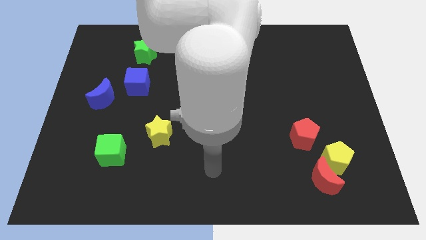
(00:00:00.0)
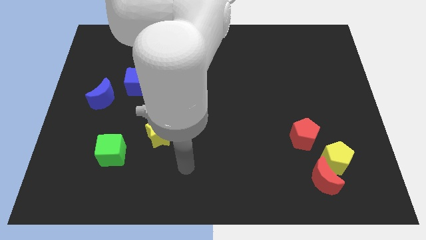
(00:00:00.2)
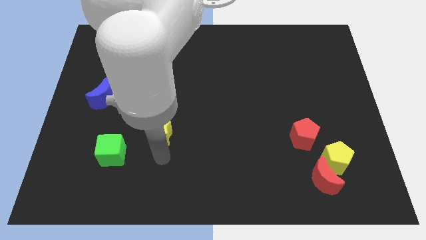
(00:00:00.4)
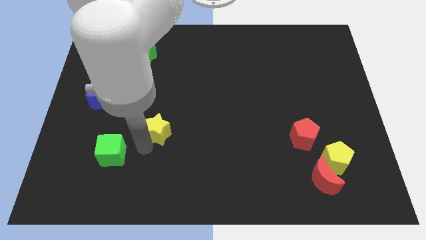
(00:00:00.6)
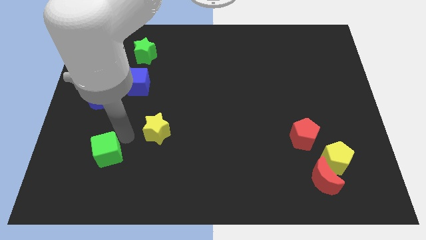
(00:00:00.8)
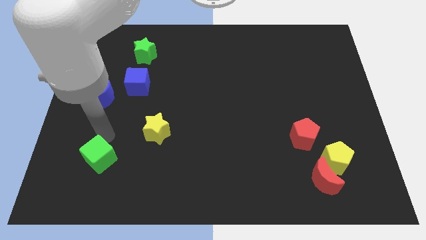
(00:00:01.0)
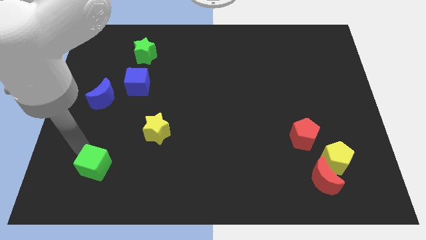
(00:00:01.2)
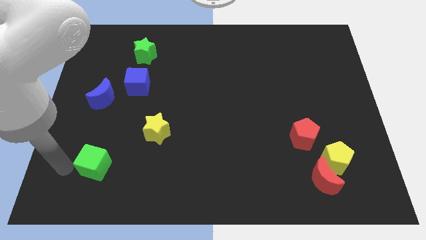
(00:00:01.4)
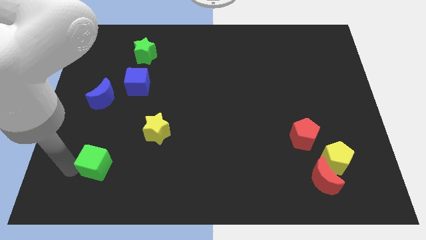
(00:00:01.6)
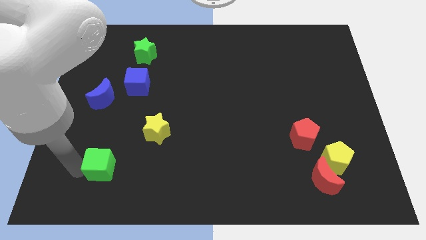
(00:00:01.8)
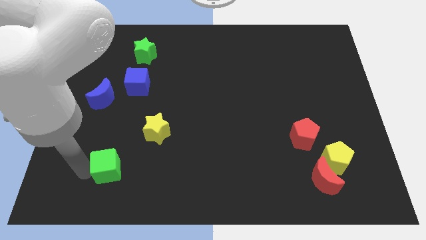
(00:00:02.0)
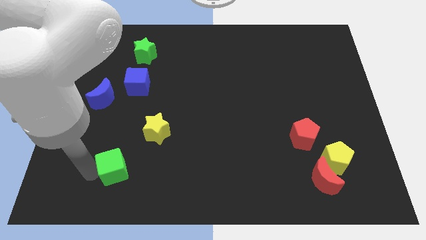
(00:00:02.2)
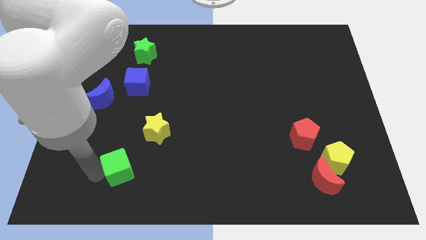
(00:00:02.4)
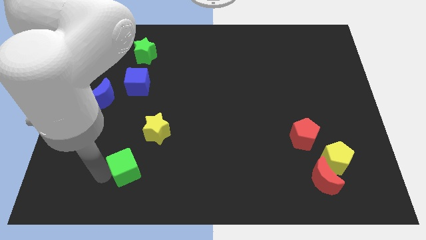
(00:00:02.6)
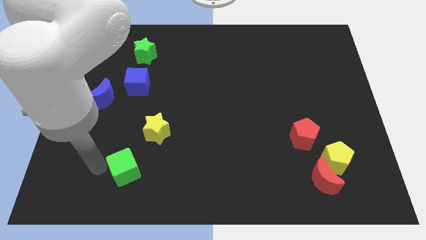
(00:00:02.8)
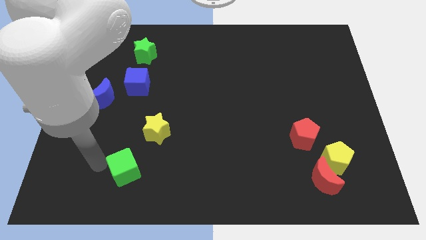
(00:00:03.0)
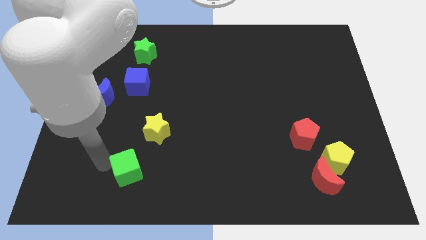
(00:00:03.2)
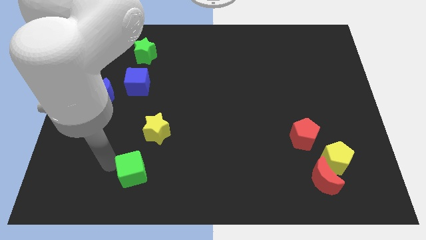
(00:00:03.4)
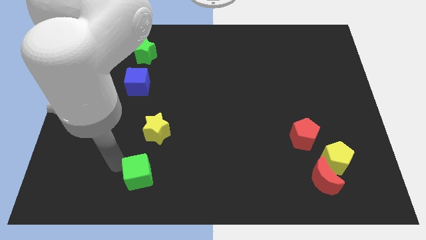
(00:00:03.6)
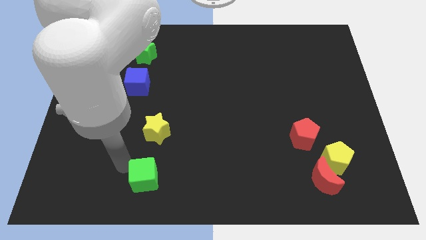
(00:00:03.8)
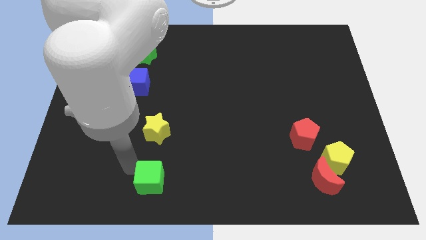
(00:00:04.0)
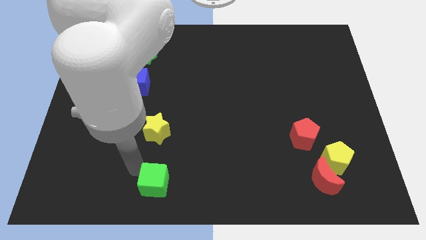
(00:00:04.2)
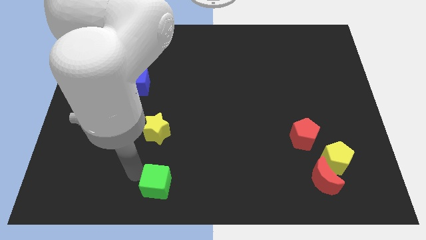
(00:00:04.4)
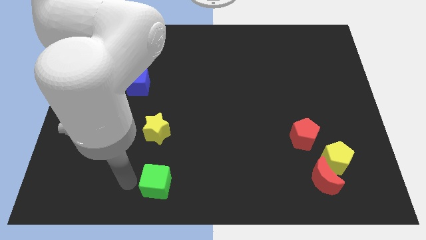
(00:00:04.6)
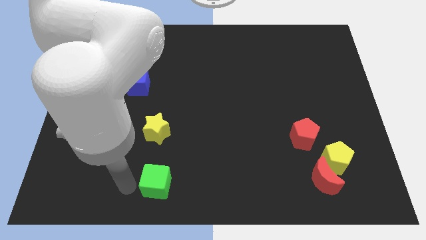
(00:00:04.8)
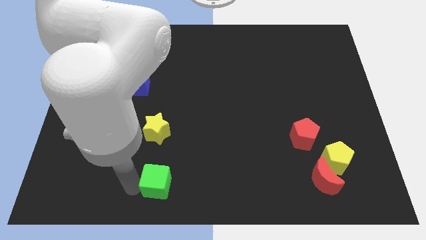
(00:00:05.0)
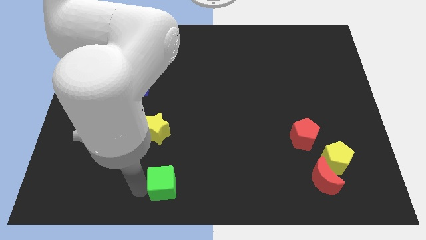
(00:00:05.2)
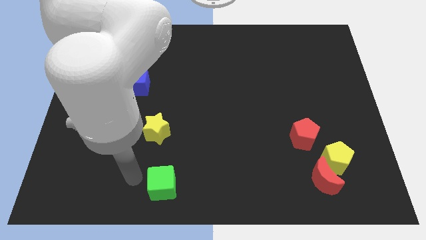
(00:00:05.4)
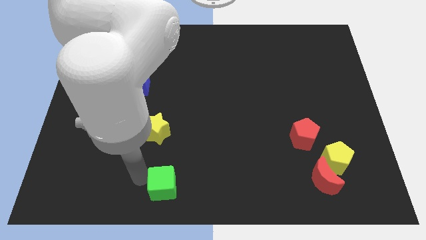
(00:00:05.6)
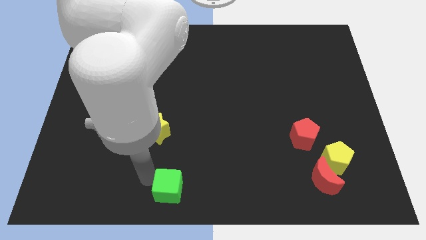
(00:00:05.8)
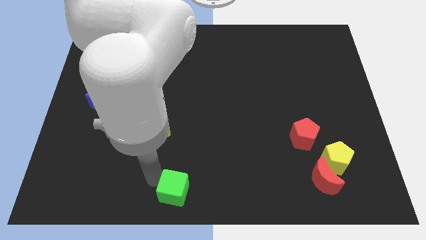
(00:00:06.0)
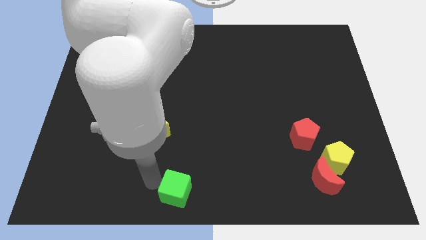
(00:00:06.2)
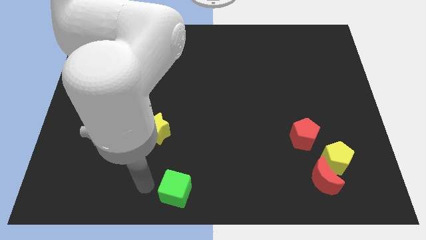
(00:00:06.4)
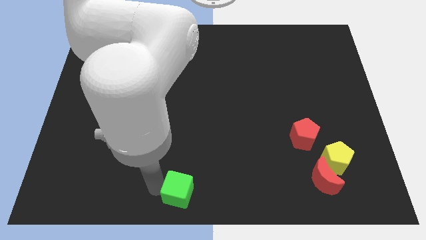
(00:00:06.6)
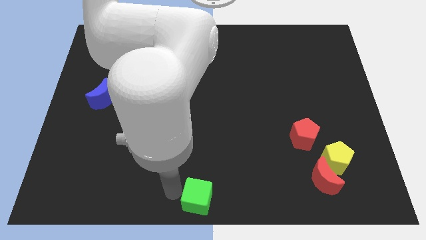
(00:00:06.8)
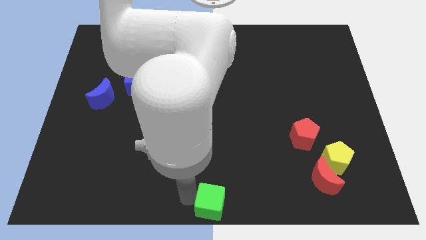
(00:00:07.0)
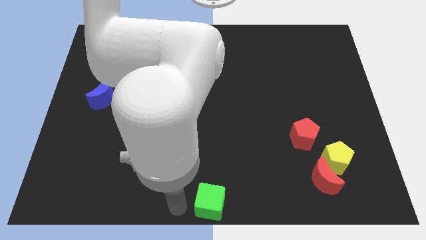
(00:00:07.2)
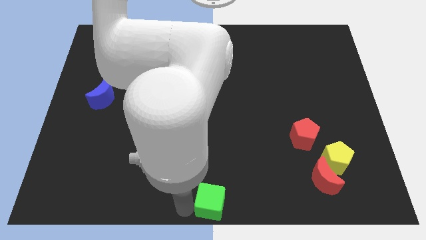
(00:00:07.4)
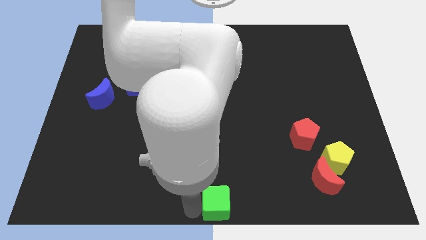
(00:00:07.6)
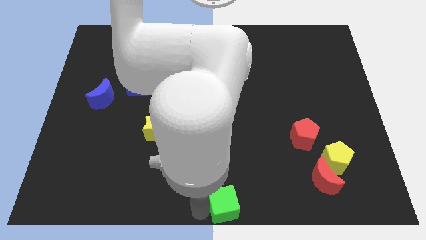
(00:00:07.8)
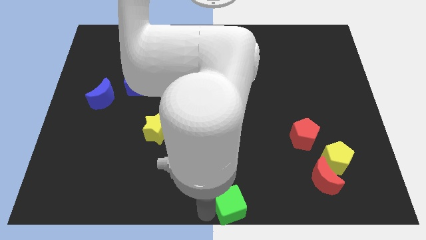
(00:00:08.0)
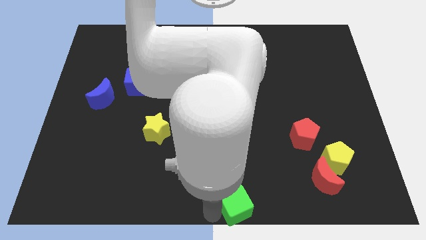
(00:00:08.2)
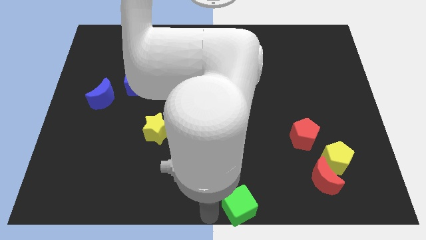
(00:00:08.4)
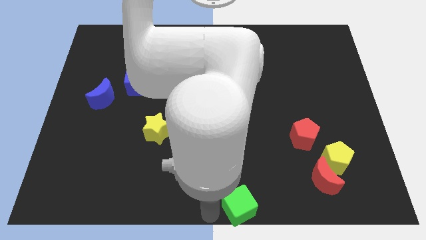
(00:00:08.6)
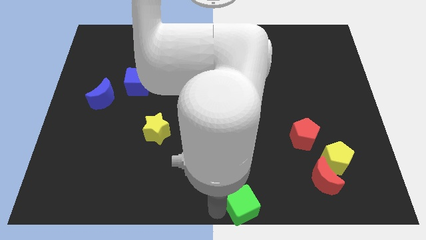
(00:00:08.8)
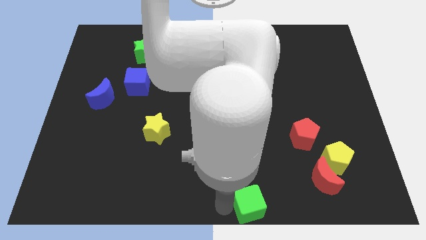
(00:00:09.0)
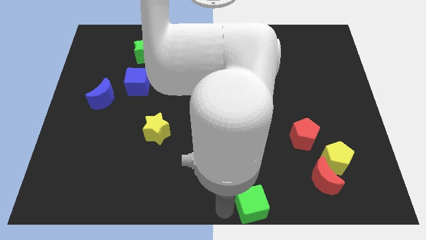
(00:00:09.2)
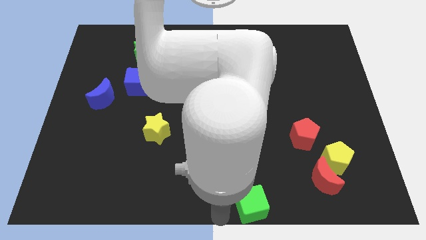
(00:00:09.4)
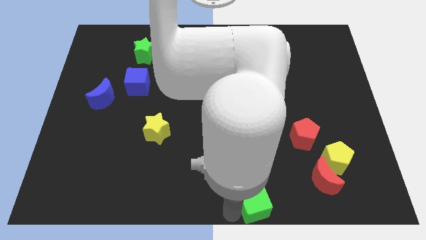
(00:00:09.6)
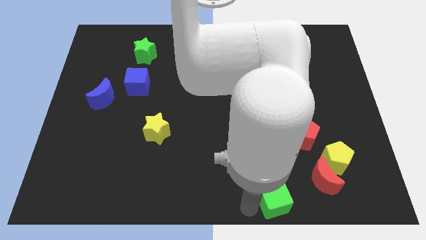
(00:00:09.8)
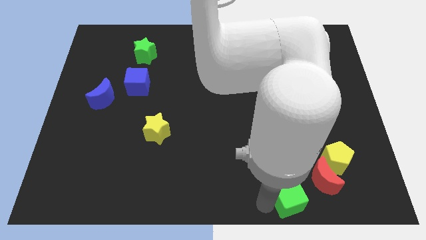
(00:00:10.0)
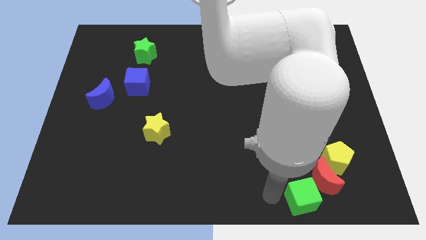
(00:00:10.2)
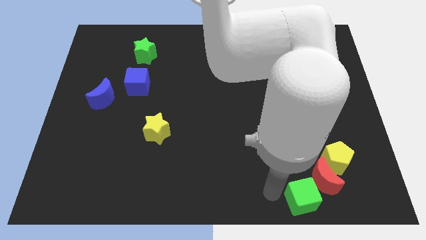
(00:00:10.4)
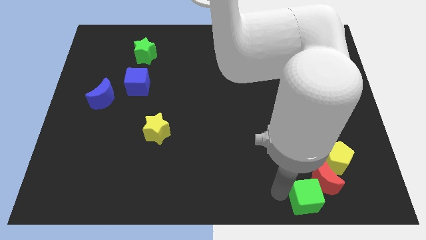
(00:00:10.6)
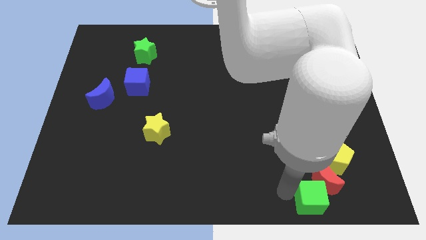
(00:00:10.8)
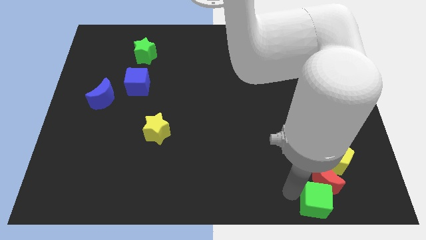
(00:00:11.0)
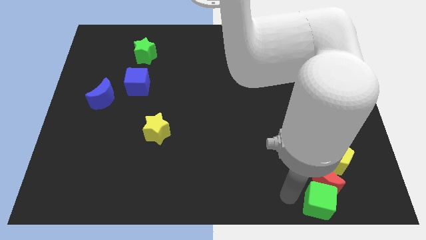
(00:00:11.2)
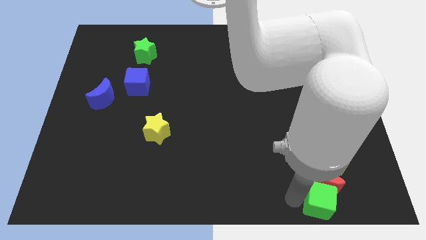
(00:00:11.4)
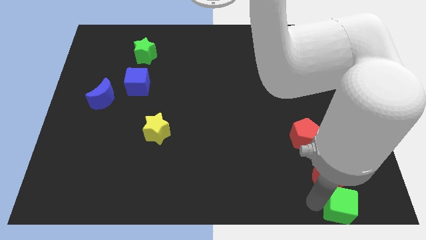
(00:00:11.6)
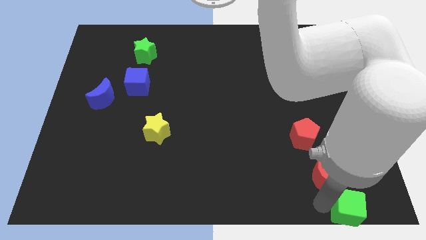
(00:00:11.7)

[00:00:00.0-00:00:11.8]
move the green cube to the lower right corner

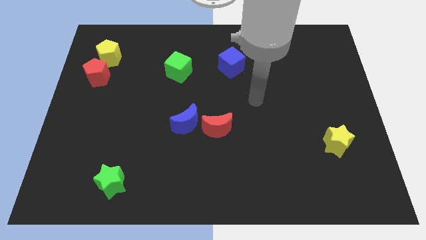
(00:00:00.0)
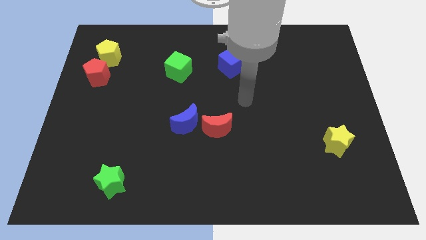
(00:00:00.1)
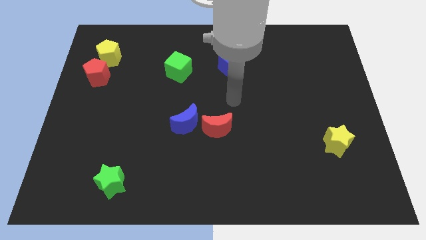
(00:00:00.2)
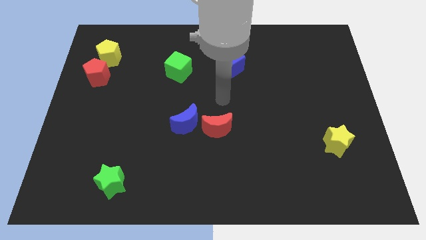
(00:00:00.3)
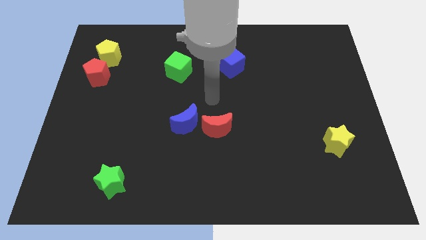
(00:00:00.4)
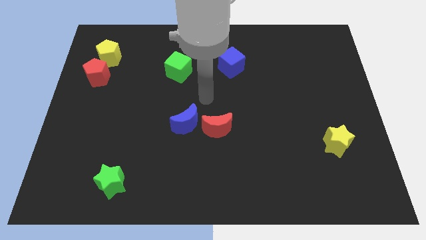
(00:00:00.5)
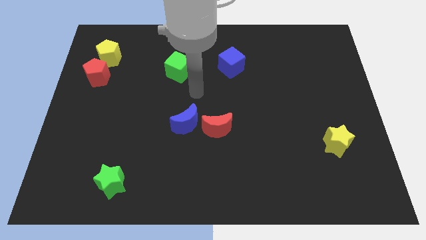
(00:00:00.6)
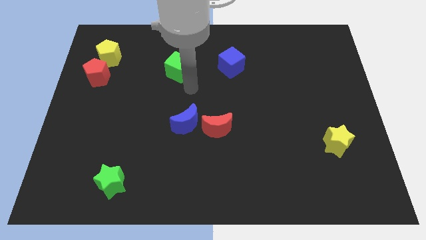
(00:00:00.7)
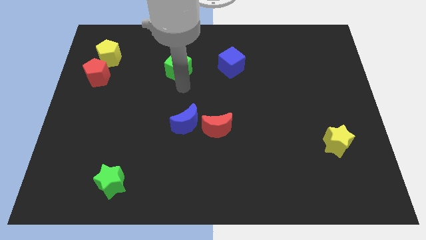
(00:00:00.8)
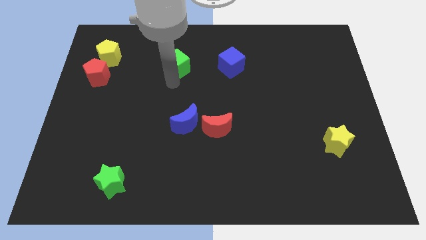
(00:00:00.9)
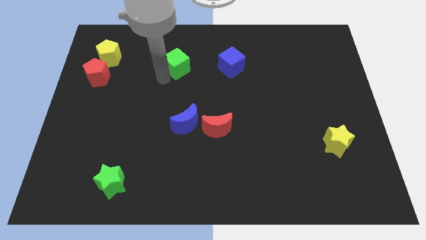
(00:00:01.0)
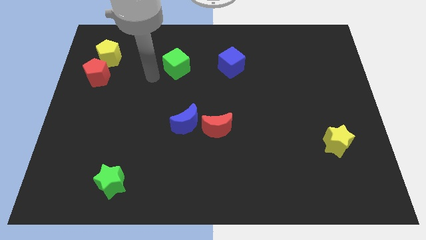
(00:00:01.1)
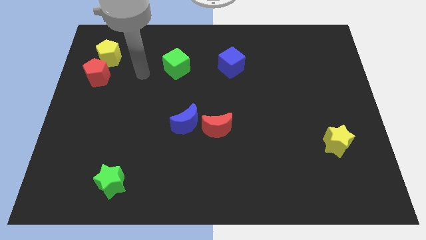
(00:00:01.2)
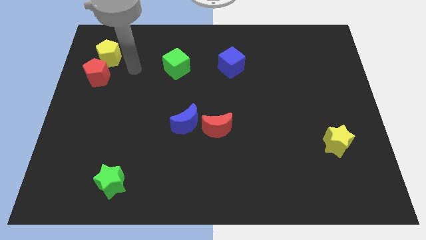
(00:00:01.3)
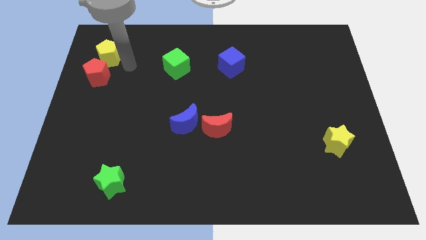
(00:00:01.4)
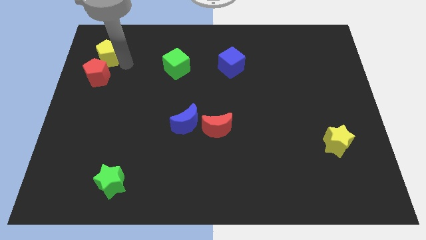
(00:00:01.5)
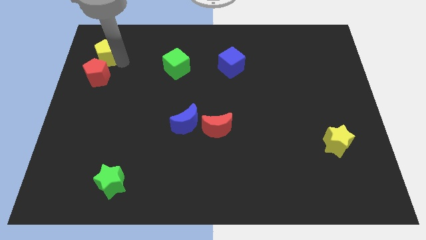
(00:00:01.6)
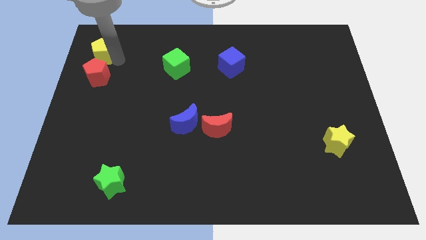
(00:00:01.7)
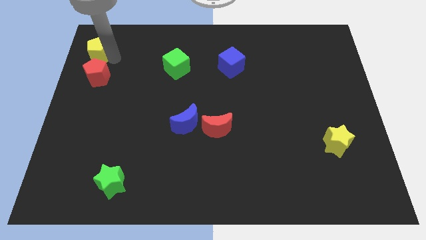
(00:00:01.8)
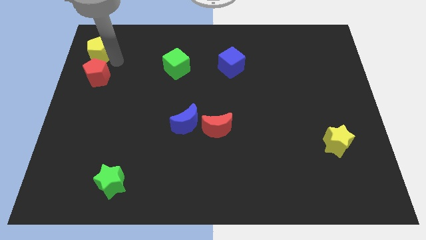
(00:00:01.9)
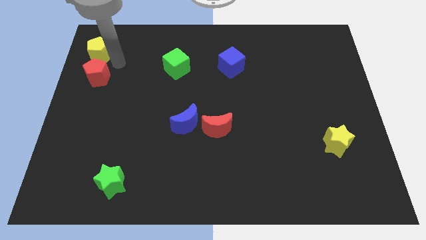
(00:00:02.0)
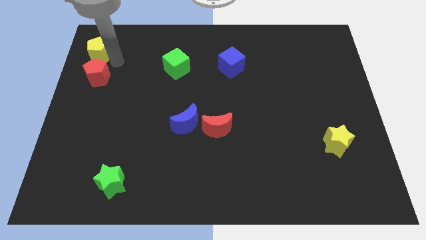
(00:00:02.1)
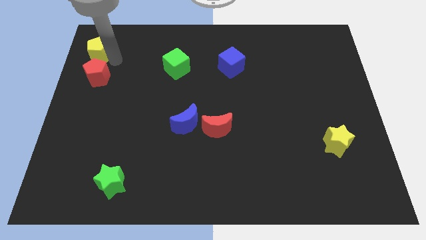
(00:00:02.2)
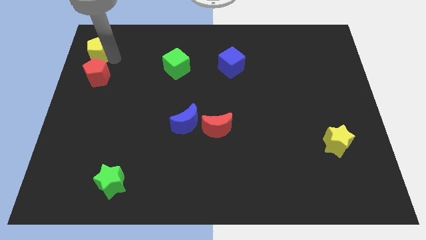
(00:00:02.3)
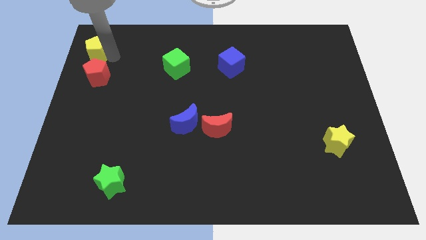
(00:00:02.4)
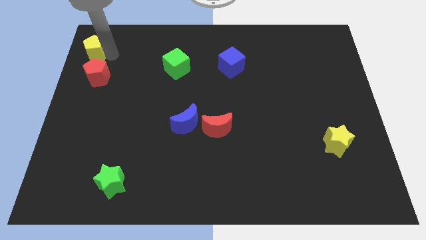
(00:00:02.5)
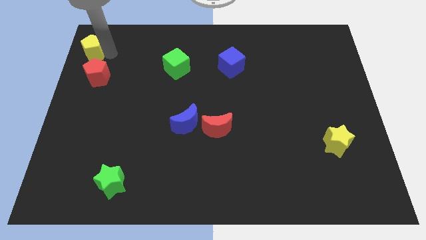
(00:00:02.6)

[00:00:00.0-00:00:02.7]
push the yellow pentagon to the upper left corner
